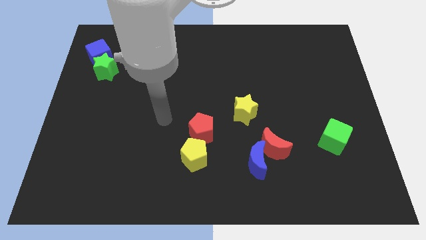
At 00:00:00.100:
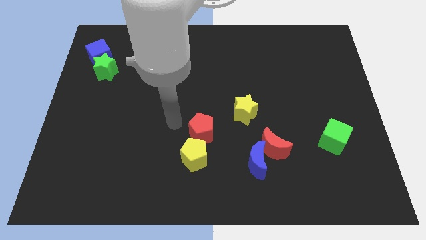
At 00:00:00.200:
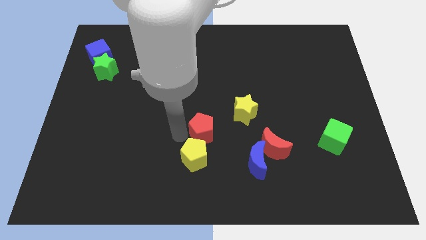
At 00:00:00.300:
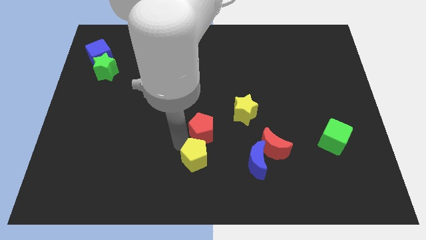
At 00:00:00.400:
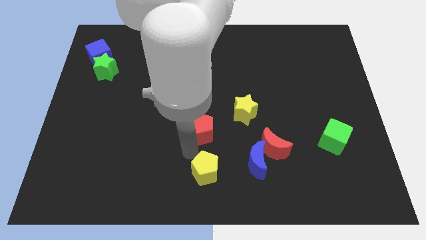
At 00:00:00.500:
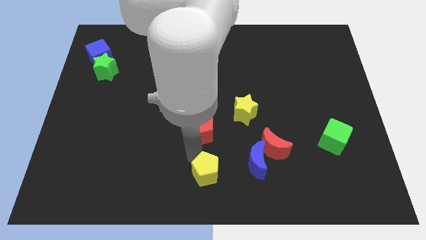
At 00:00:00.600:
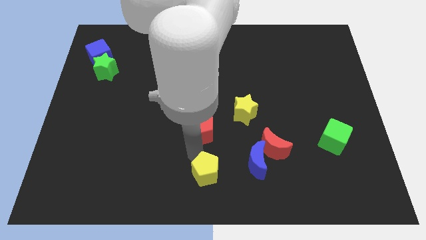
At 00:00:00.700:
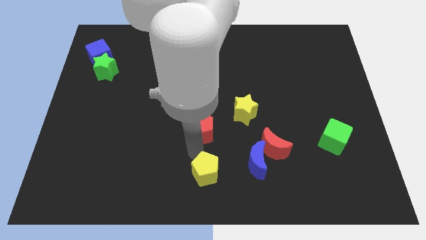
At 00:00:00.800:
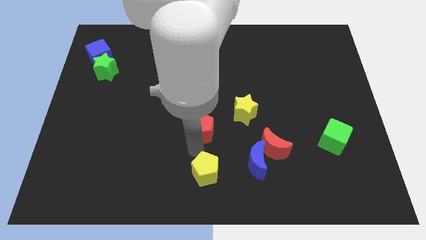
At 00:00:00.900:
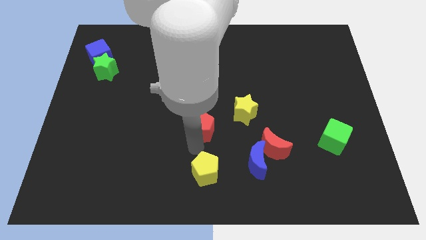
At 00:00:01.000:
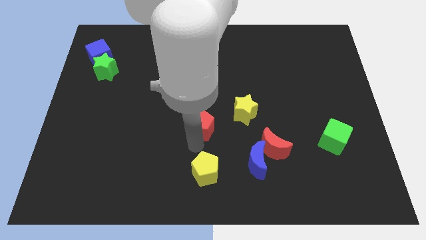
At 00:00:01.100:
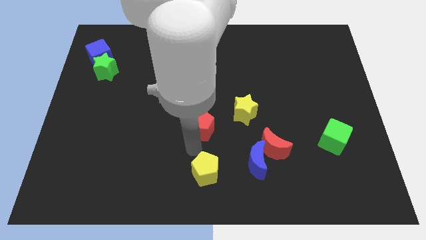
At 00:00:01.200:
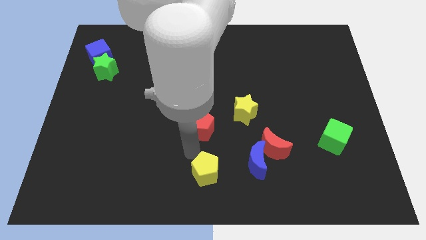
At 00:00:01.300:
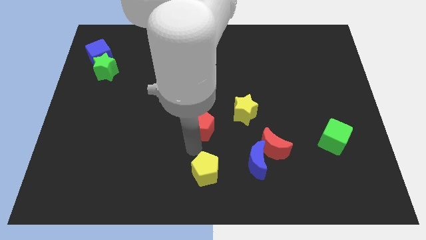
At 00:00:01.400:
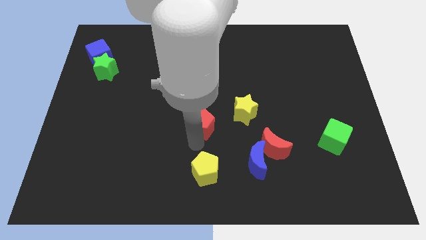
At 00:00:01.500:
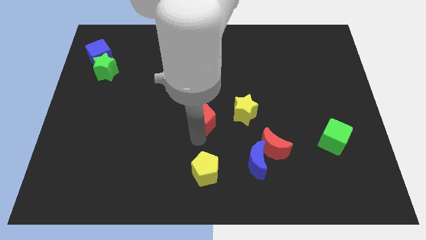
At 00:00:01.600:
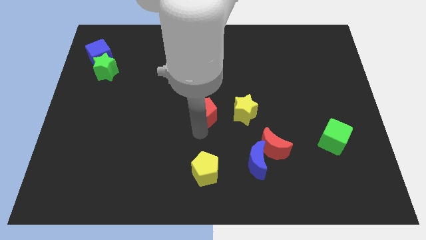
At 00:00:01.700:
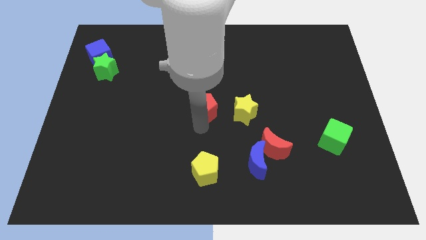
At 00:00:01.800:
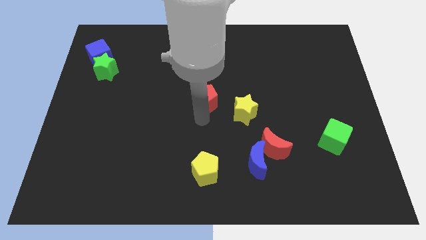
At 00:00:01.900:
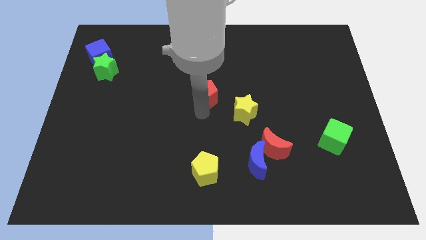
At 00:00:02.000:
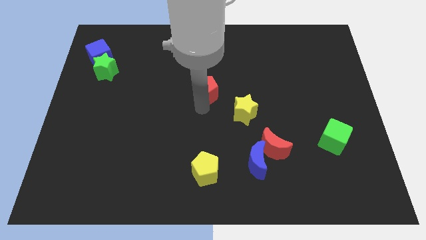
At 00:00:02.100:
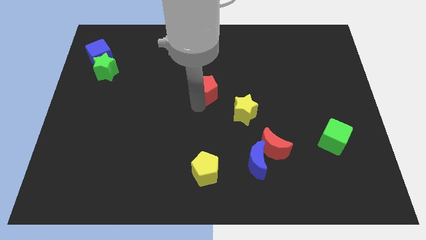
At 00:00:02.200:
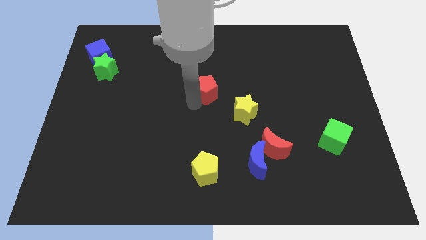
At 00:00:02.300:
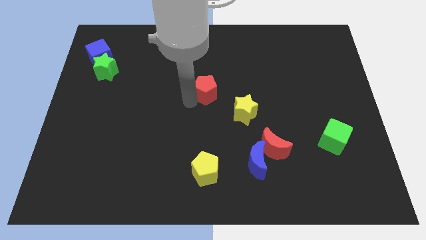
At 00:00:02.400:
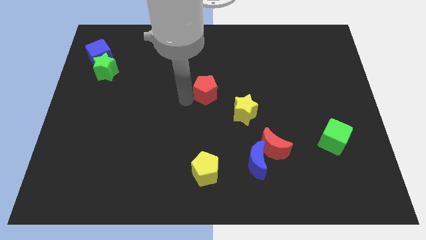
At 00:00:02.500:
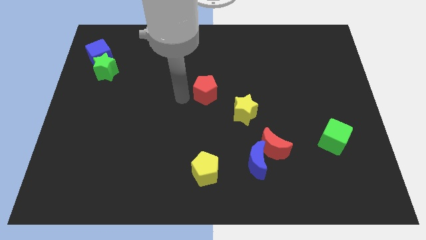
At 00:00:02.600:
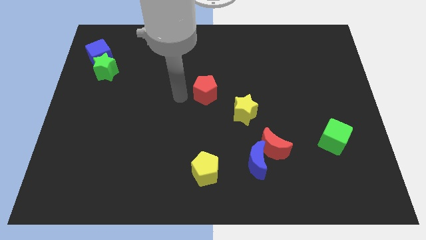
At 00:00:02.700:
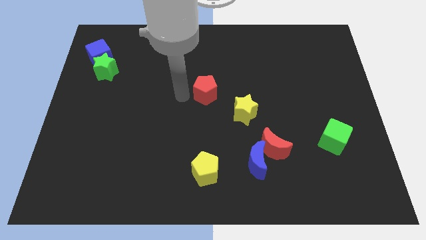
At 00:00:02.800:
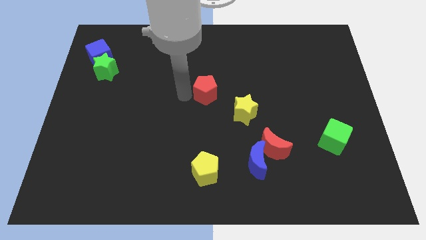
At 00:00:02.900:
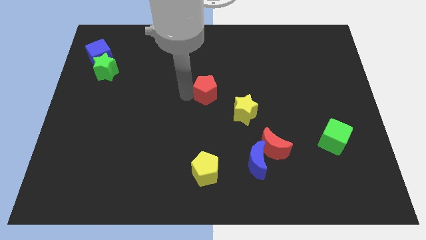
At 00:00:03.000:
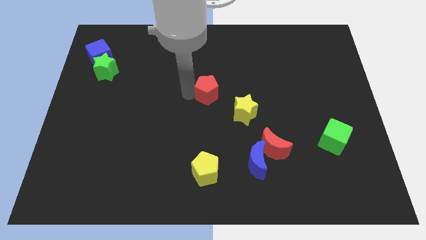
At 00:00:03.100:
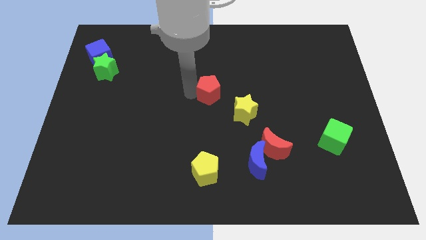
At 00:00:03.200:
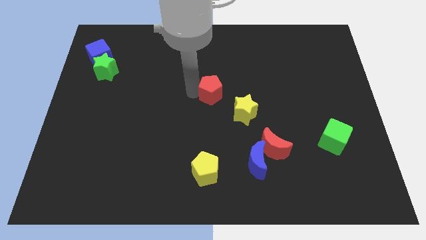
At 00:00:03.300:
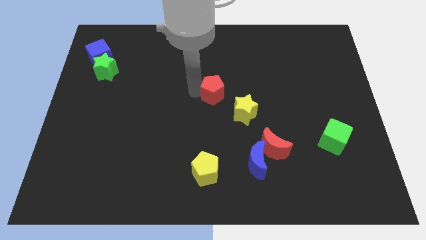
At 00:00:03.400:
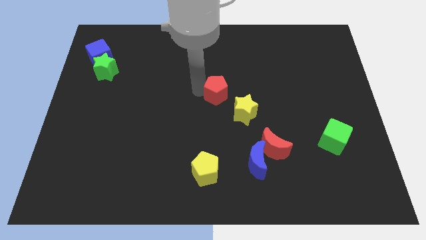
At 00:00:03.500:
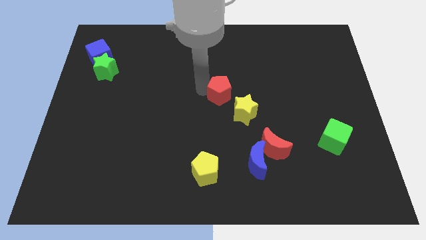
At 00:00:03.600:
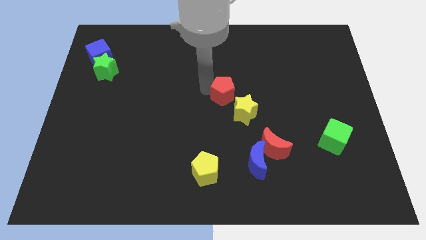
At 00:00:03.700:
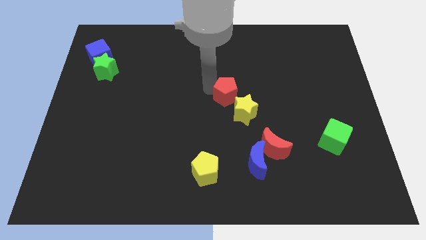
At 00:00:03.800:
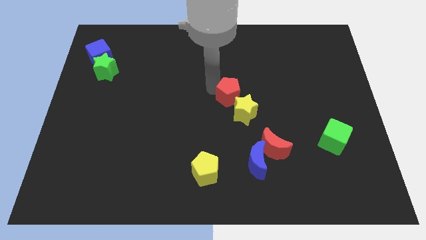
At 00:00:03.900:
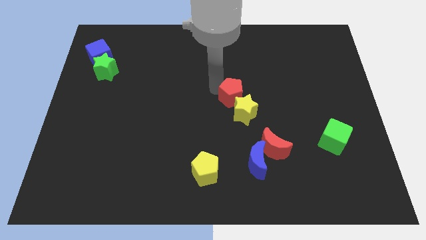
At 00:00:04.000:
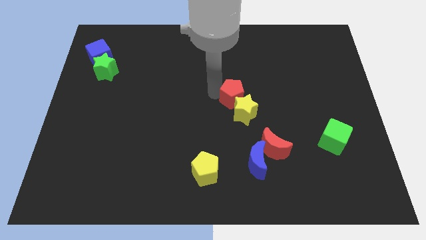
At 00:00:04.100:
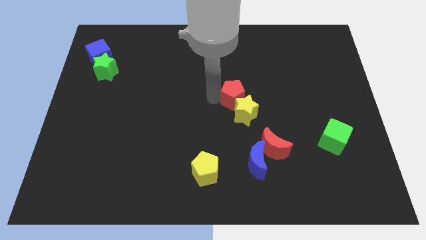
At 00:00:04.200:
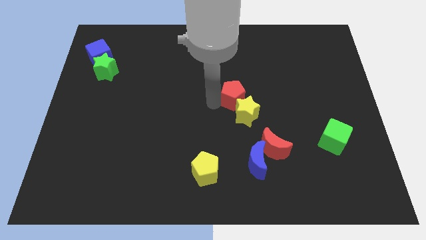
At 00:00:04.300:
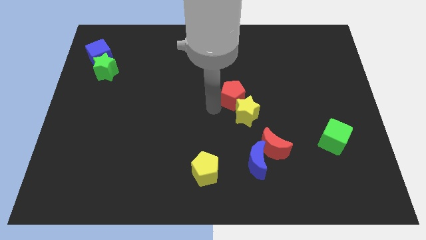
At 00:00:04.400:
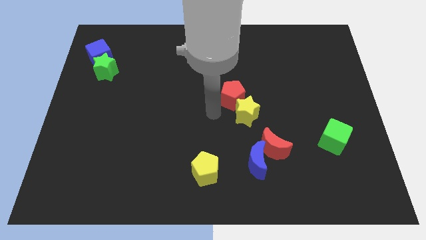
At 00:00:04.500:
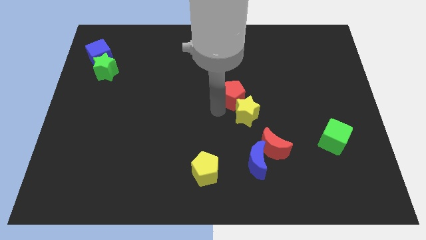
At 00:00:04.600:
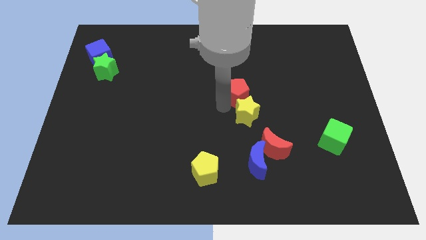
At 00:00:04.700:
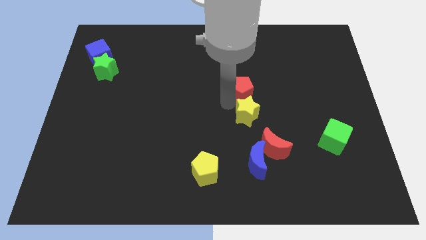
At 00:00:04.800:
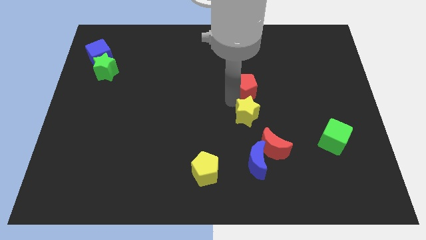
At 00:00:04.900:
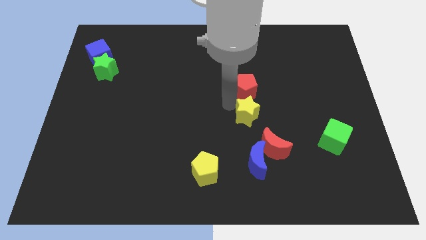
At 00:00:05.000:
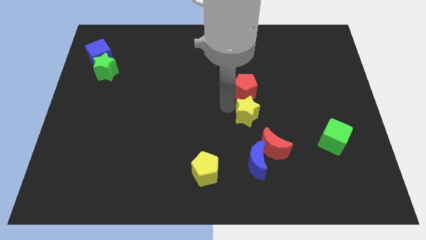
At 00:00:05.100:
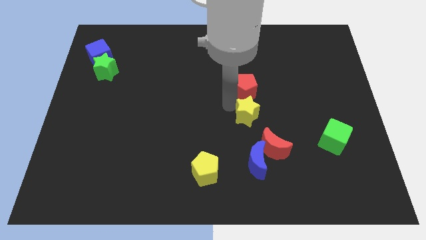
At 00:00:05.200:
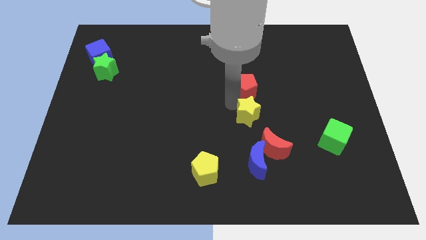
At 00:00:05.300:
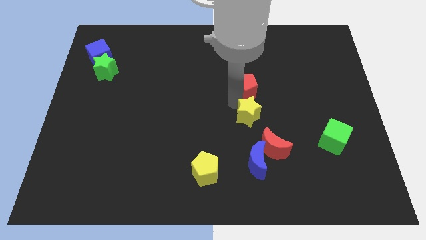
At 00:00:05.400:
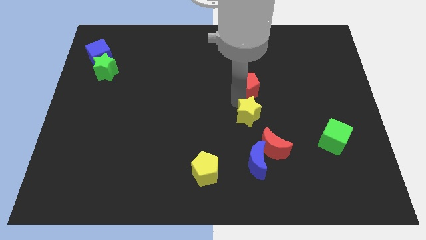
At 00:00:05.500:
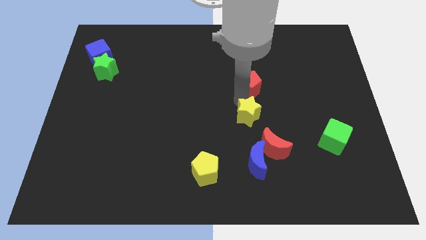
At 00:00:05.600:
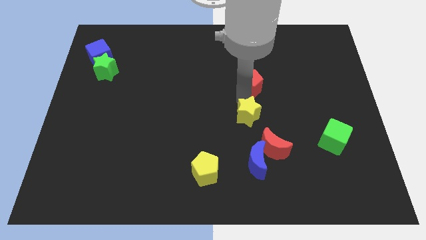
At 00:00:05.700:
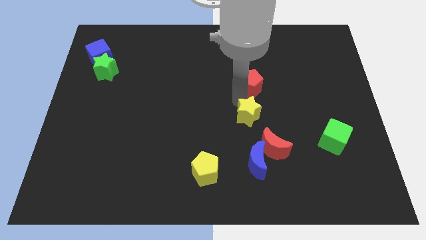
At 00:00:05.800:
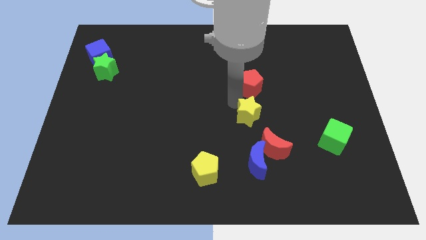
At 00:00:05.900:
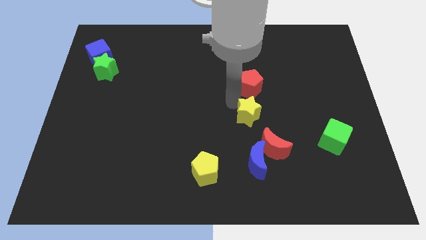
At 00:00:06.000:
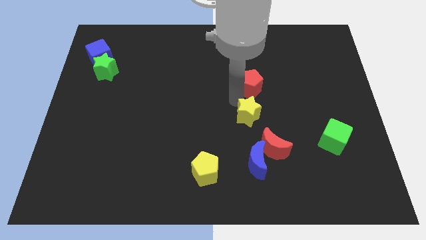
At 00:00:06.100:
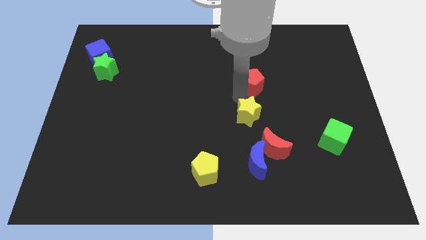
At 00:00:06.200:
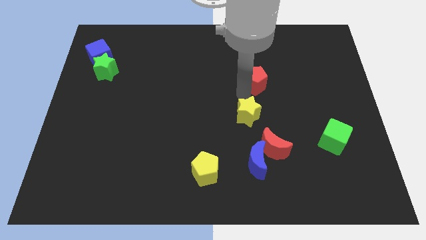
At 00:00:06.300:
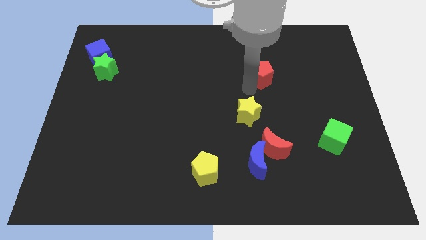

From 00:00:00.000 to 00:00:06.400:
move the red pentagon upwards and right diagonally

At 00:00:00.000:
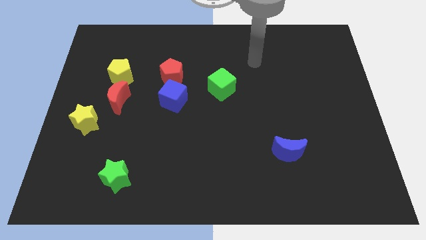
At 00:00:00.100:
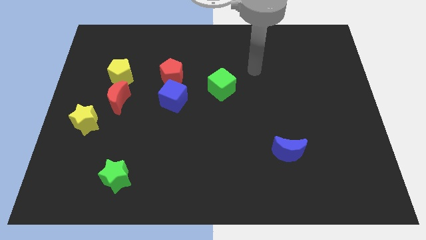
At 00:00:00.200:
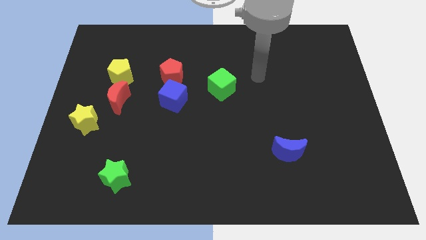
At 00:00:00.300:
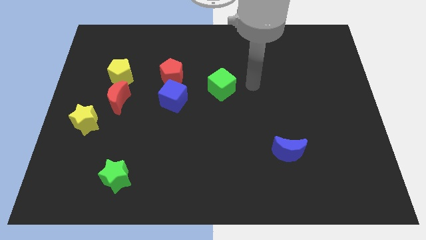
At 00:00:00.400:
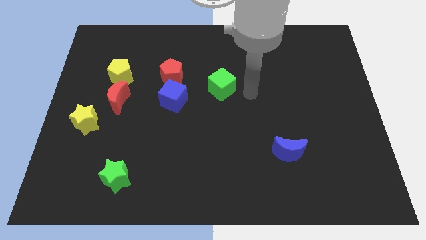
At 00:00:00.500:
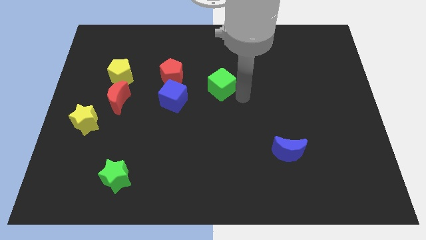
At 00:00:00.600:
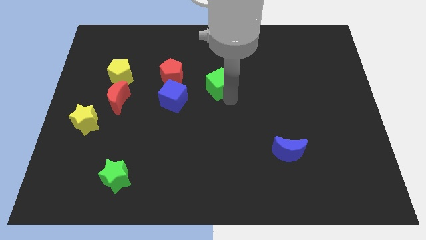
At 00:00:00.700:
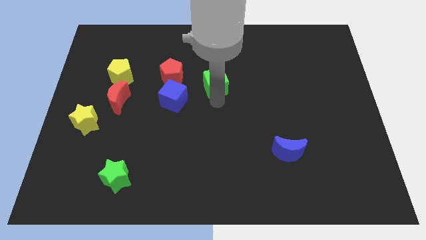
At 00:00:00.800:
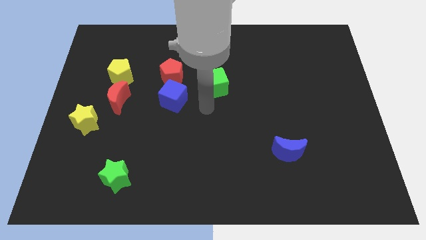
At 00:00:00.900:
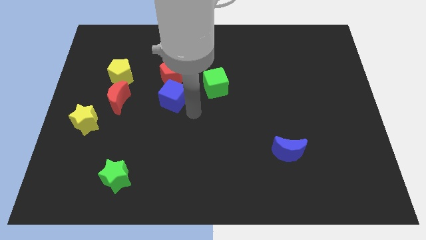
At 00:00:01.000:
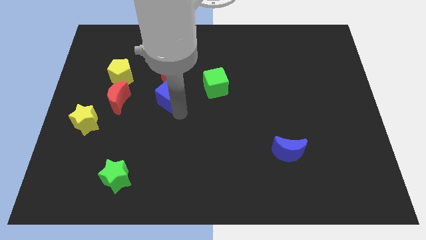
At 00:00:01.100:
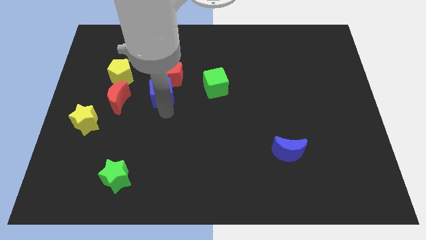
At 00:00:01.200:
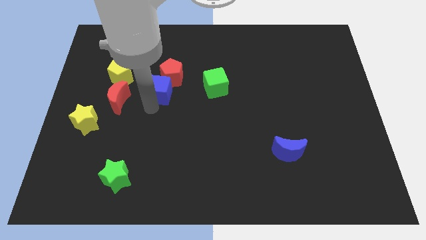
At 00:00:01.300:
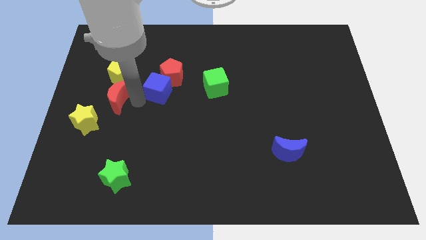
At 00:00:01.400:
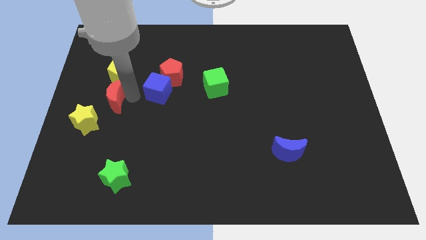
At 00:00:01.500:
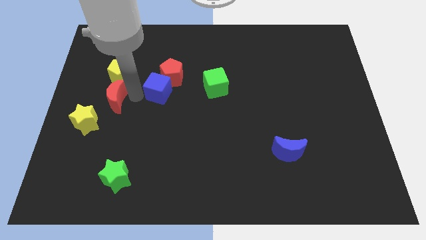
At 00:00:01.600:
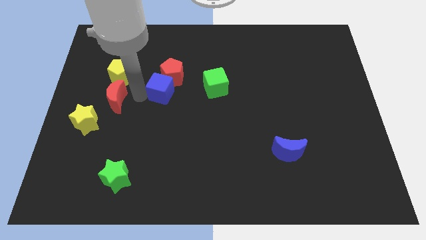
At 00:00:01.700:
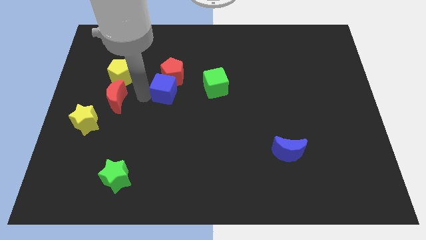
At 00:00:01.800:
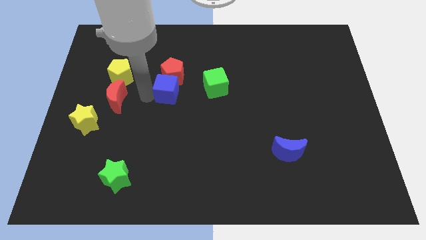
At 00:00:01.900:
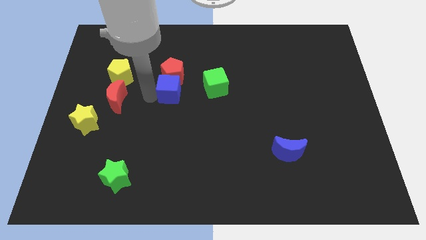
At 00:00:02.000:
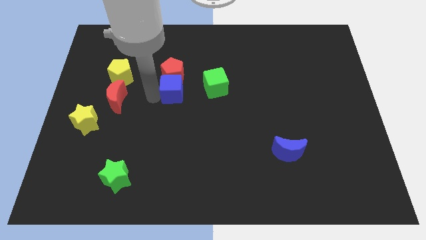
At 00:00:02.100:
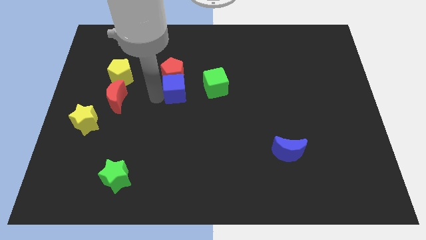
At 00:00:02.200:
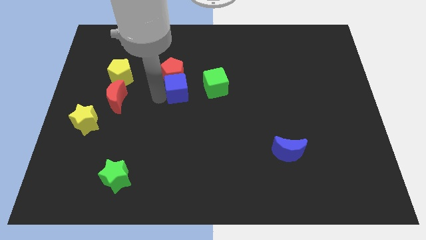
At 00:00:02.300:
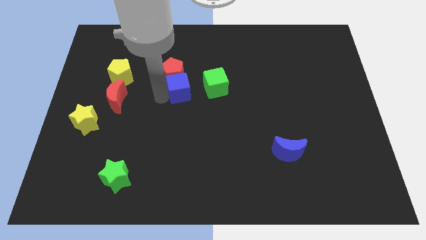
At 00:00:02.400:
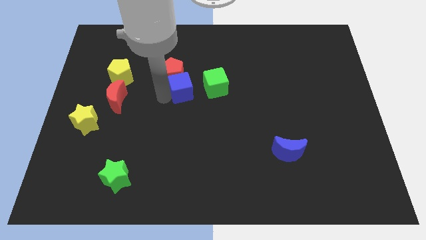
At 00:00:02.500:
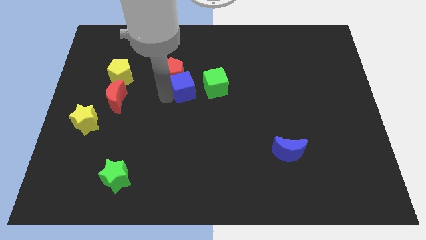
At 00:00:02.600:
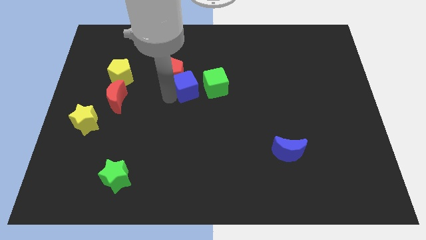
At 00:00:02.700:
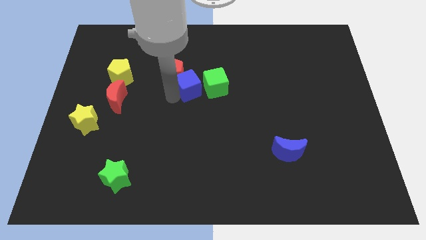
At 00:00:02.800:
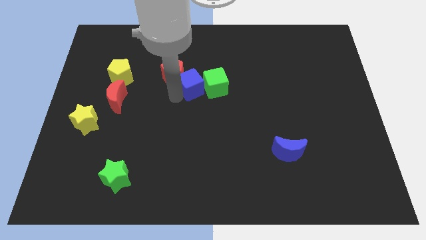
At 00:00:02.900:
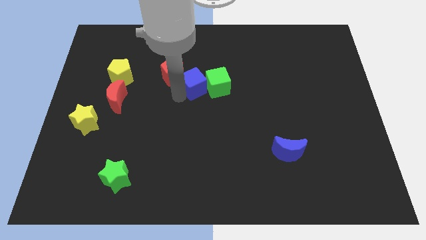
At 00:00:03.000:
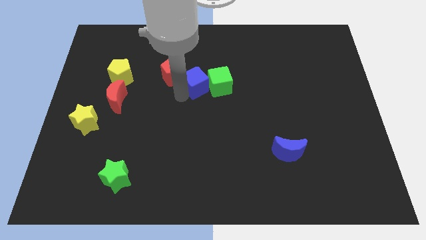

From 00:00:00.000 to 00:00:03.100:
slightly push the blue cube up and to the right diagonally
